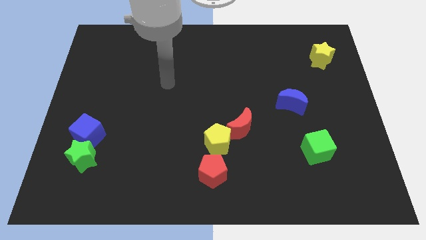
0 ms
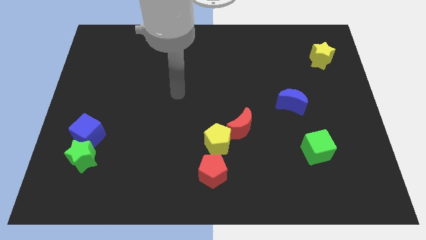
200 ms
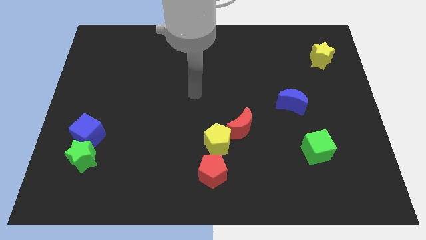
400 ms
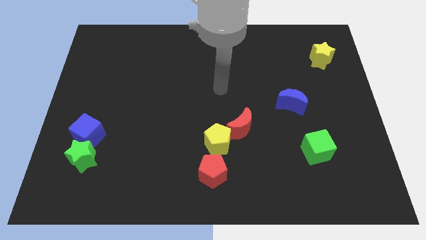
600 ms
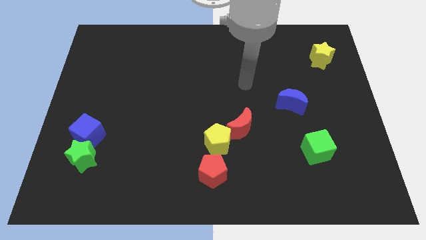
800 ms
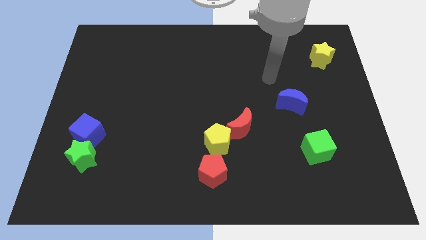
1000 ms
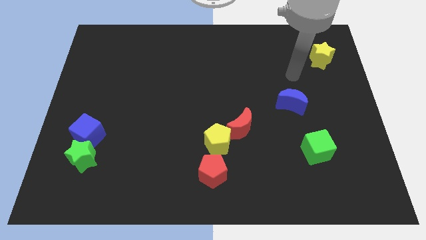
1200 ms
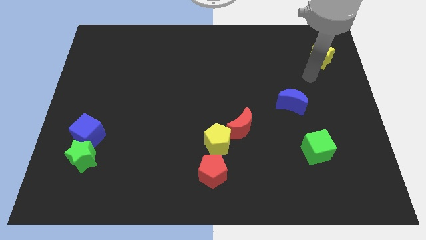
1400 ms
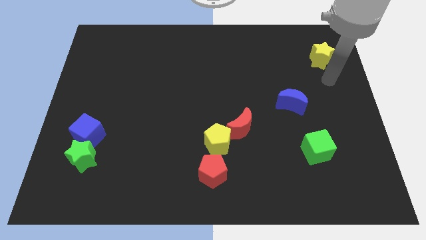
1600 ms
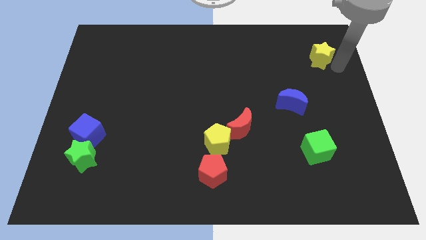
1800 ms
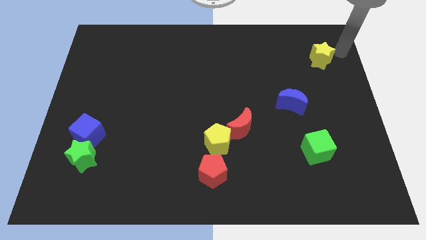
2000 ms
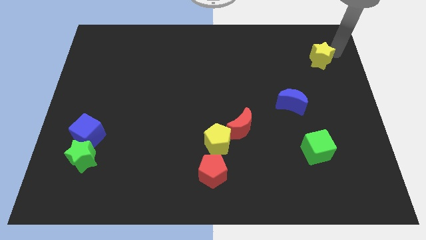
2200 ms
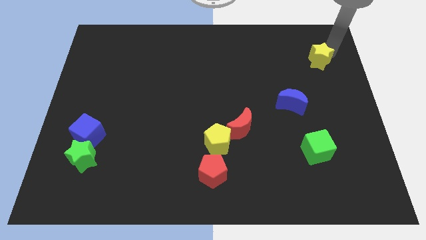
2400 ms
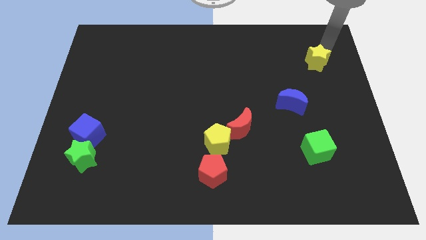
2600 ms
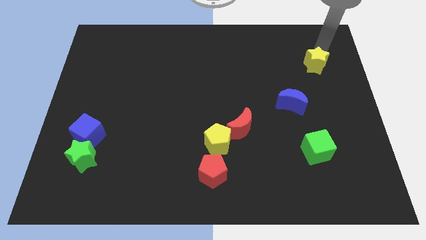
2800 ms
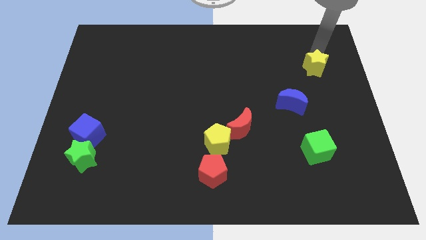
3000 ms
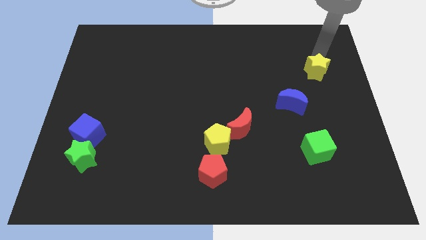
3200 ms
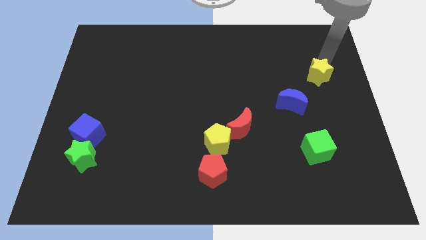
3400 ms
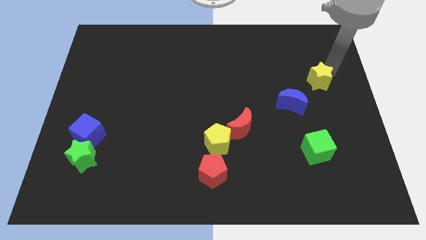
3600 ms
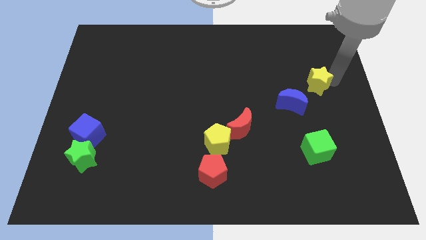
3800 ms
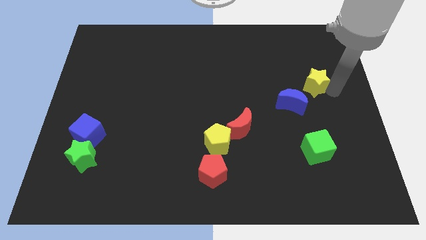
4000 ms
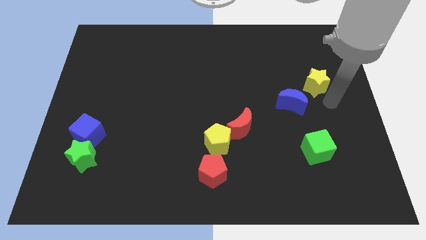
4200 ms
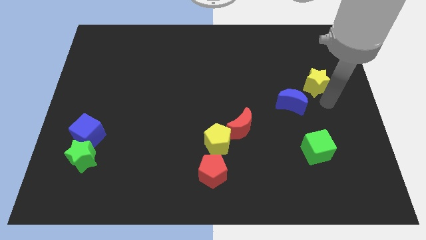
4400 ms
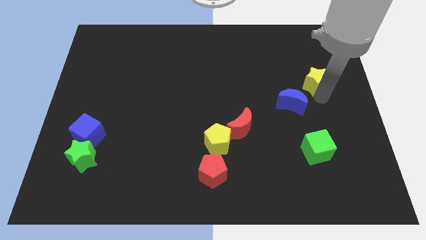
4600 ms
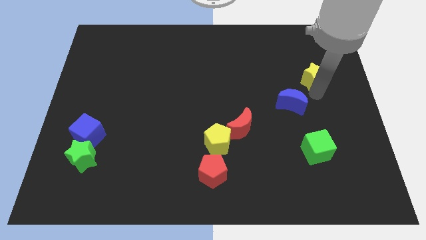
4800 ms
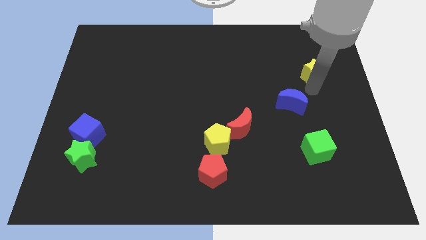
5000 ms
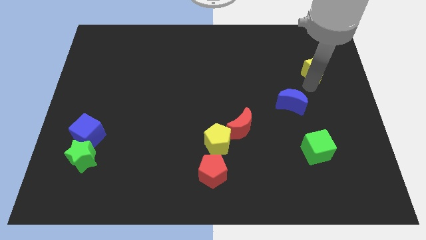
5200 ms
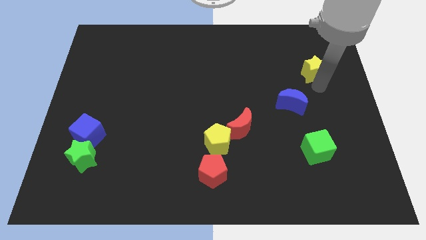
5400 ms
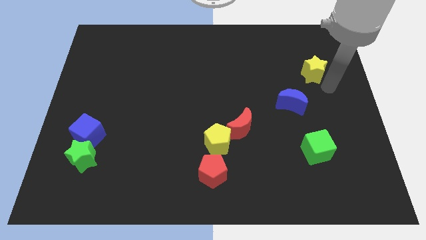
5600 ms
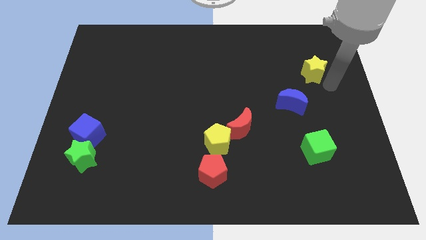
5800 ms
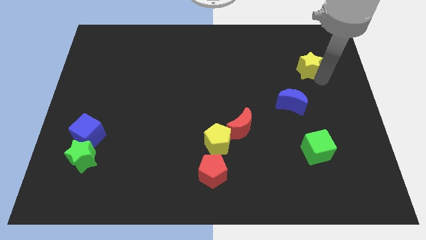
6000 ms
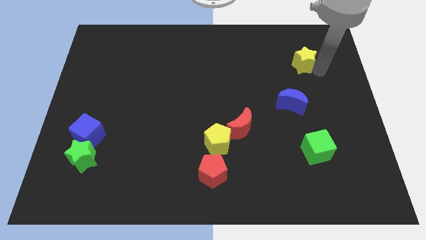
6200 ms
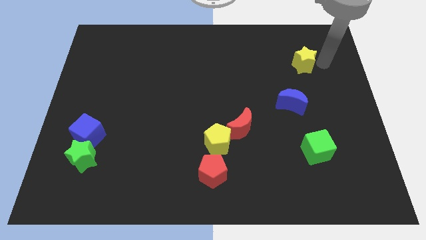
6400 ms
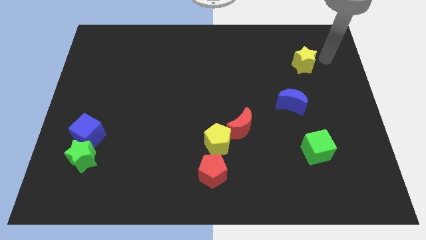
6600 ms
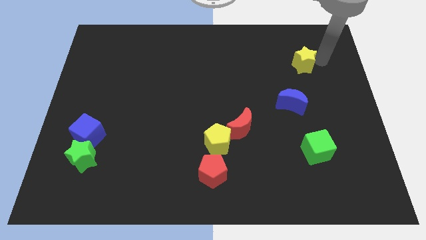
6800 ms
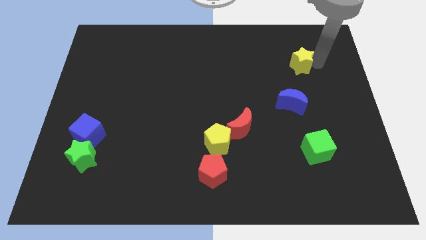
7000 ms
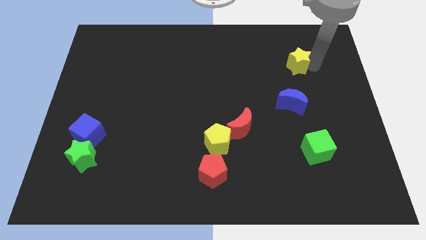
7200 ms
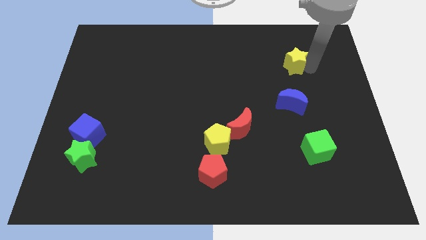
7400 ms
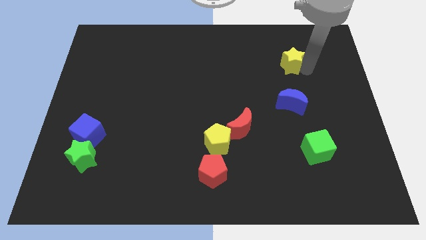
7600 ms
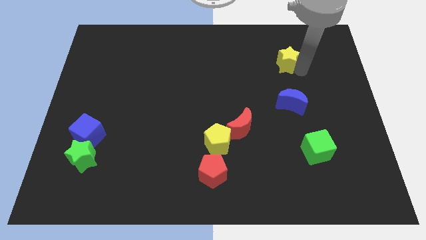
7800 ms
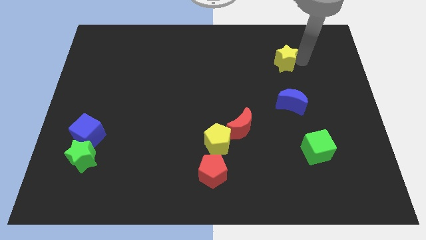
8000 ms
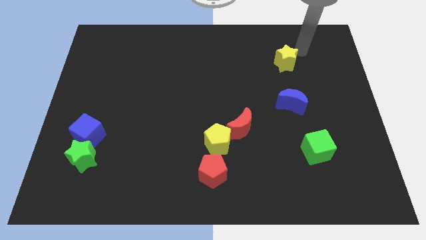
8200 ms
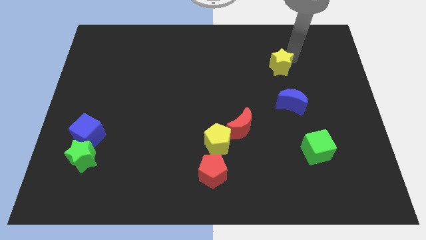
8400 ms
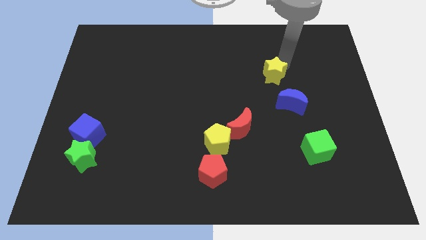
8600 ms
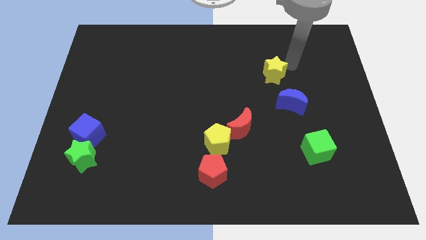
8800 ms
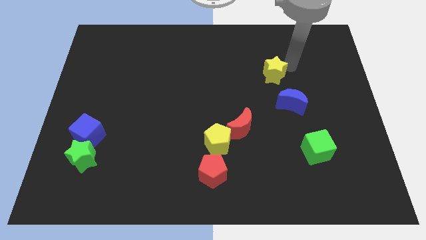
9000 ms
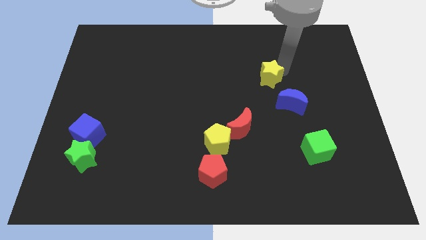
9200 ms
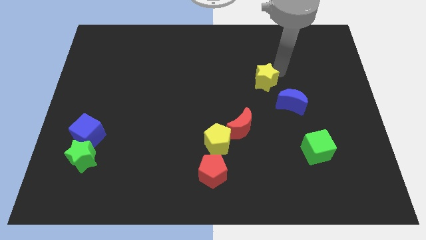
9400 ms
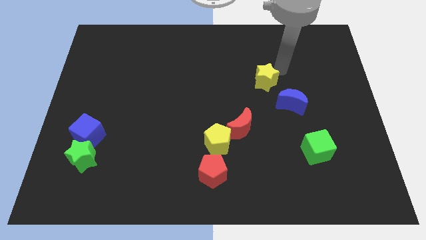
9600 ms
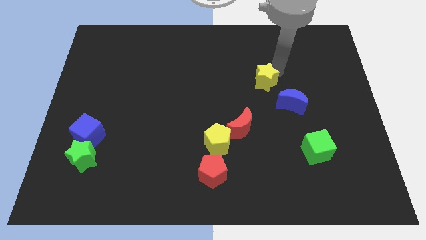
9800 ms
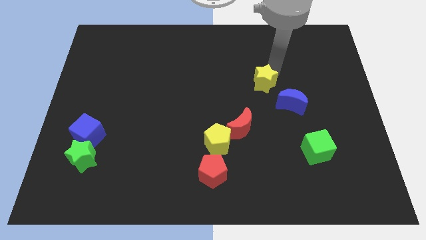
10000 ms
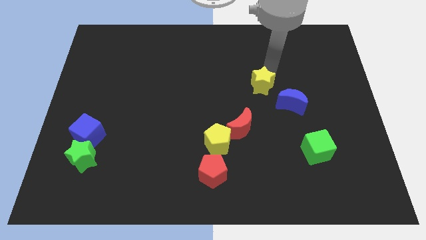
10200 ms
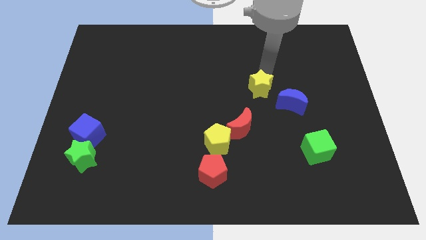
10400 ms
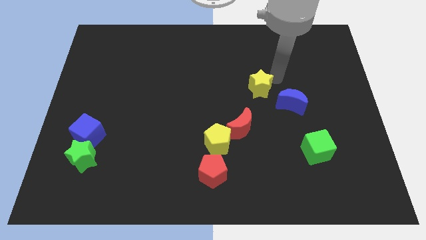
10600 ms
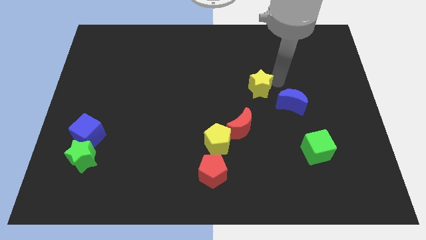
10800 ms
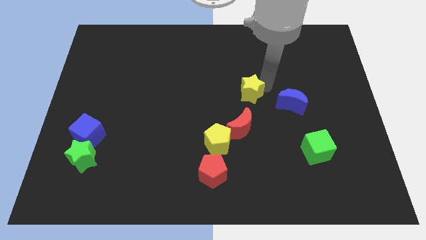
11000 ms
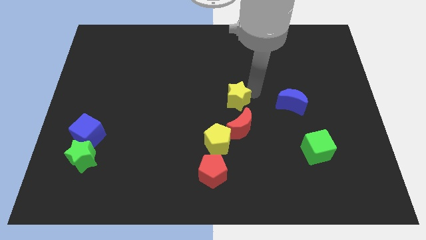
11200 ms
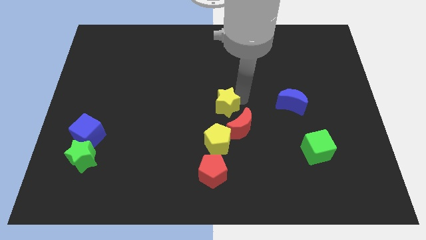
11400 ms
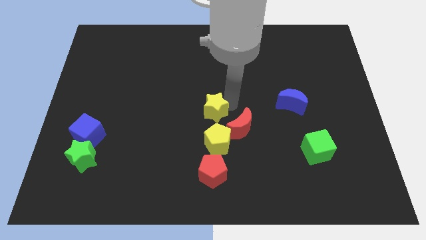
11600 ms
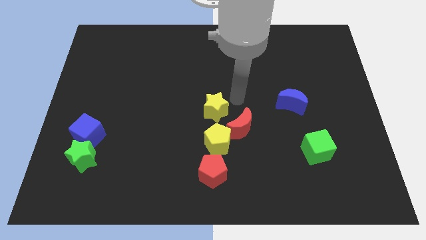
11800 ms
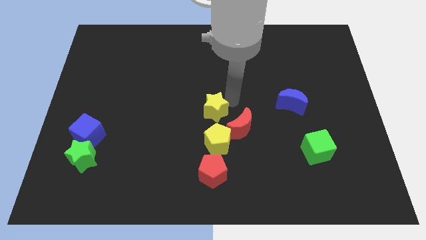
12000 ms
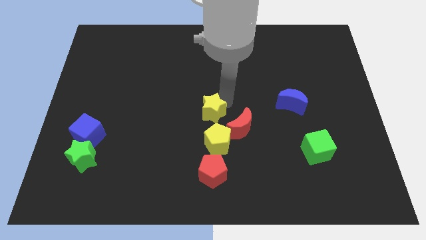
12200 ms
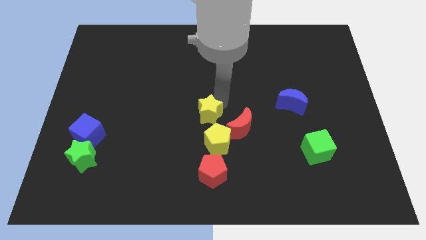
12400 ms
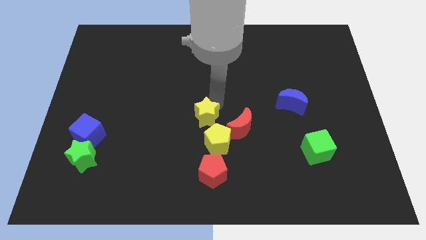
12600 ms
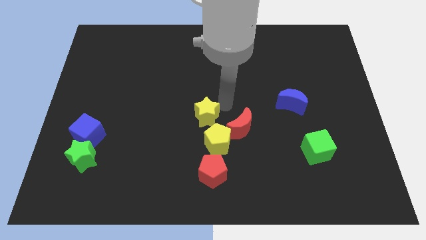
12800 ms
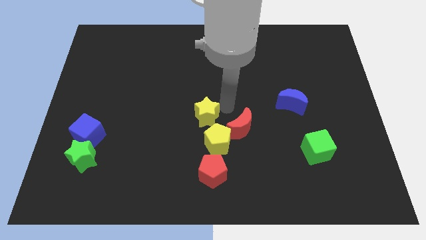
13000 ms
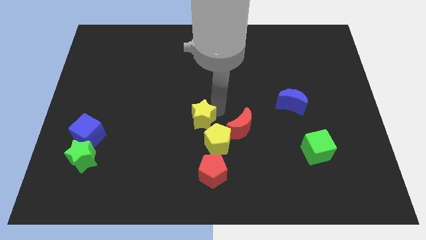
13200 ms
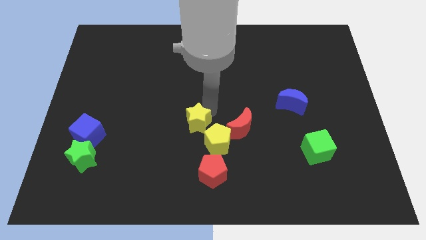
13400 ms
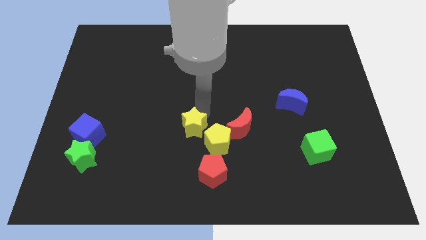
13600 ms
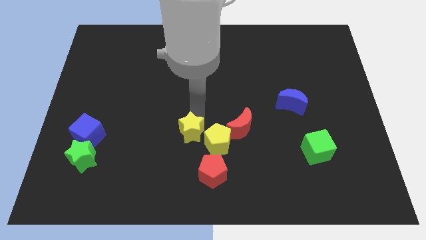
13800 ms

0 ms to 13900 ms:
put the yellow star diagonally up and to the left of the red pentagon

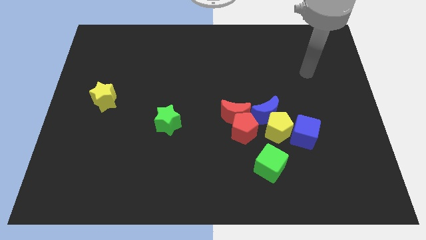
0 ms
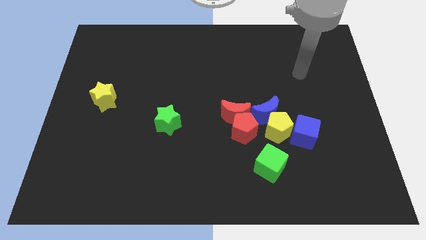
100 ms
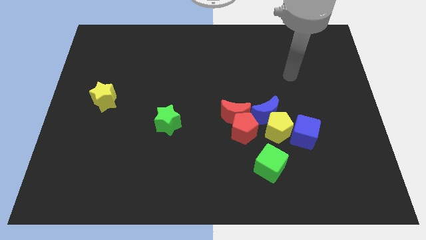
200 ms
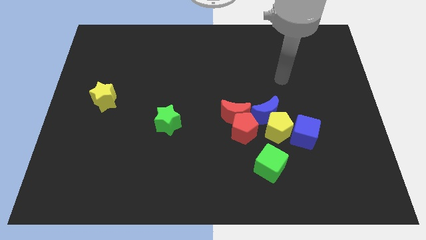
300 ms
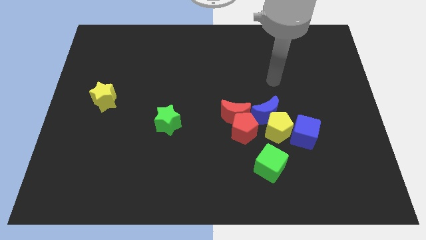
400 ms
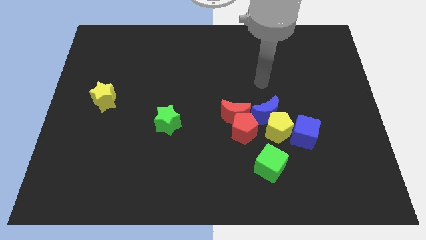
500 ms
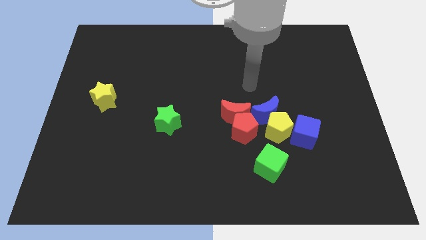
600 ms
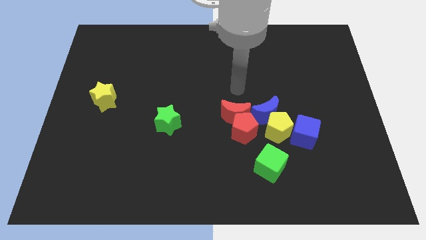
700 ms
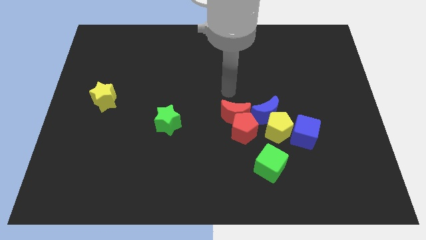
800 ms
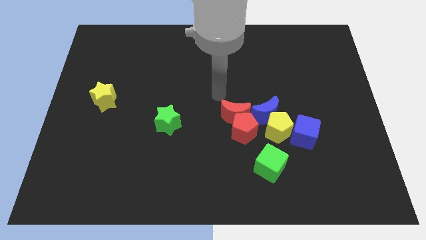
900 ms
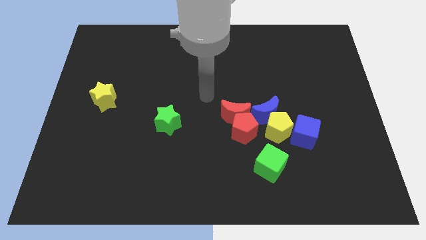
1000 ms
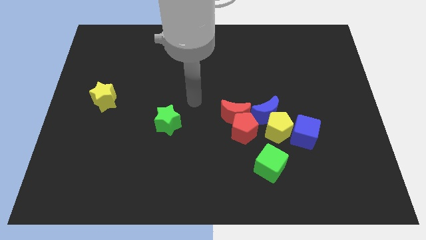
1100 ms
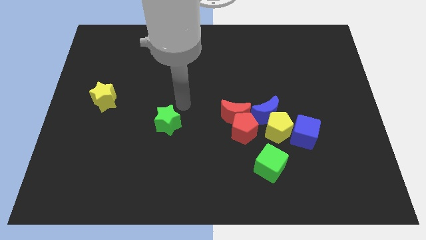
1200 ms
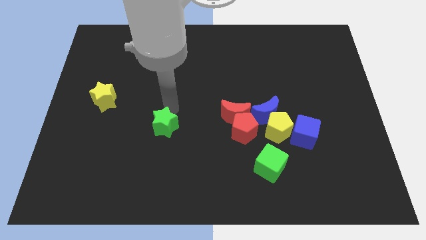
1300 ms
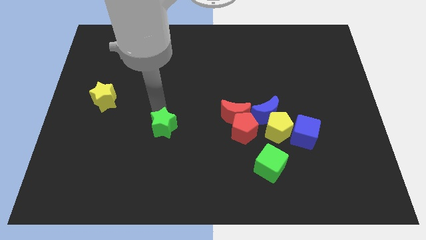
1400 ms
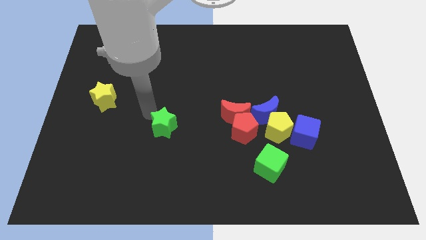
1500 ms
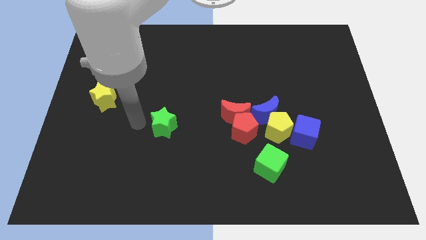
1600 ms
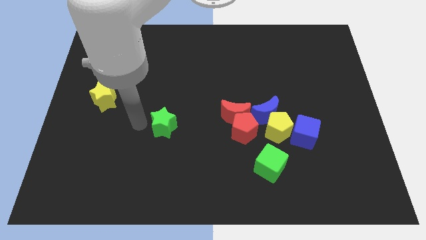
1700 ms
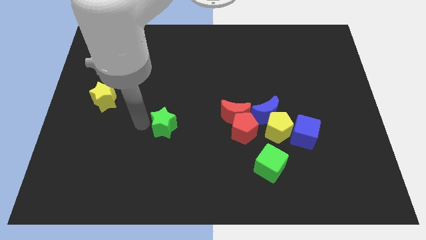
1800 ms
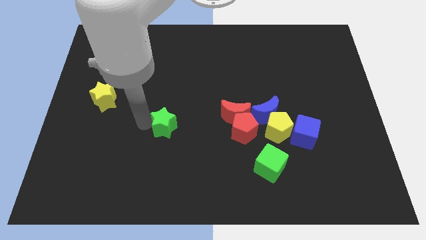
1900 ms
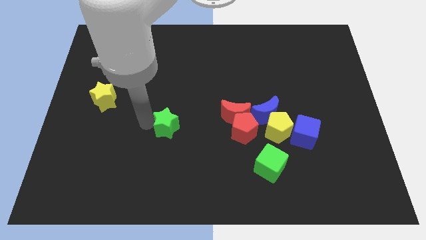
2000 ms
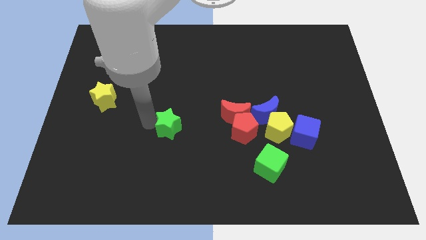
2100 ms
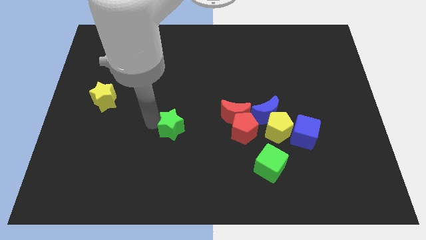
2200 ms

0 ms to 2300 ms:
put the green star just left of the red pentagon
